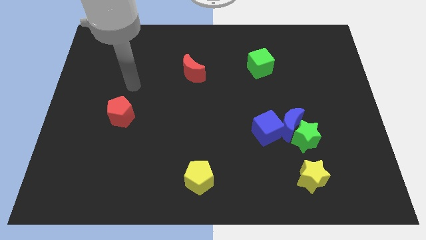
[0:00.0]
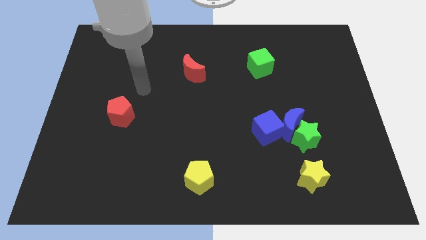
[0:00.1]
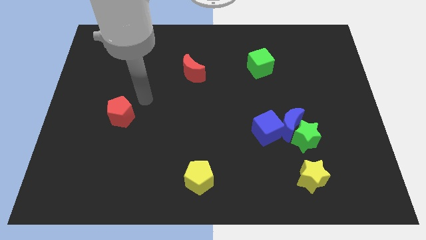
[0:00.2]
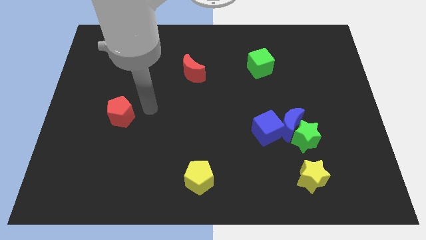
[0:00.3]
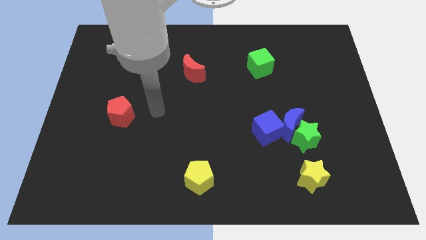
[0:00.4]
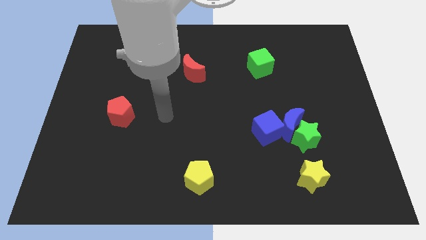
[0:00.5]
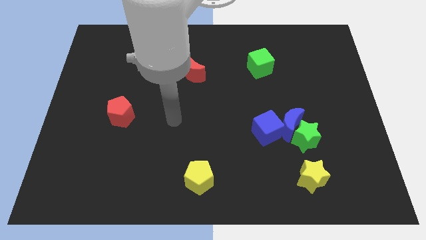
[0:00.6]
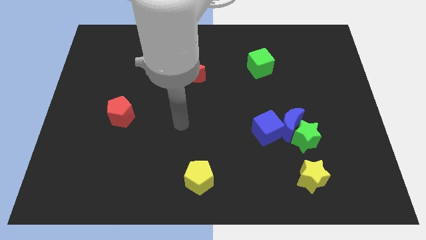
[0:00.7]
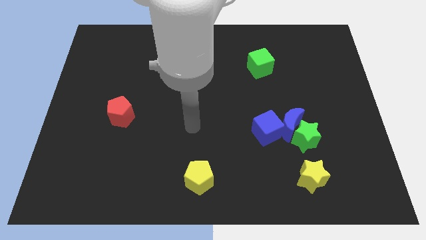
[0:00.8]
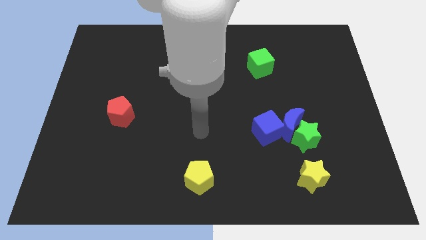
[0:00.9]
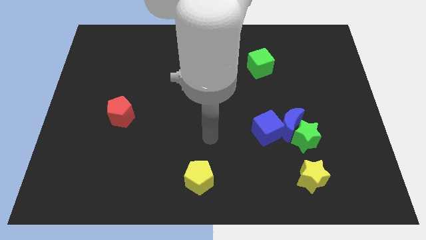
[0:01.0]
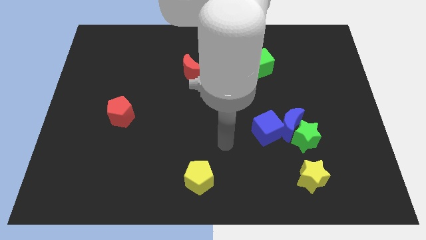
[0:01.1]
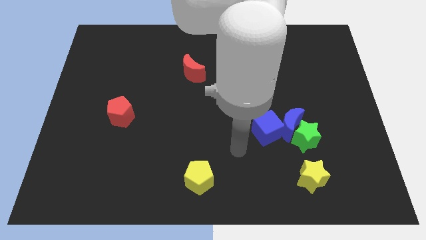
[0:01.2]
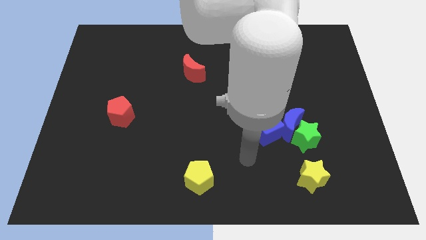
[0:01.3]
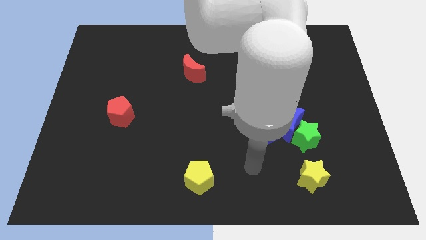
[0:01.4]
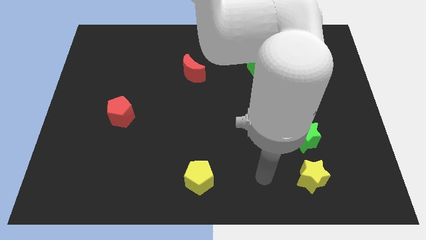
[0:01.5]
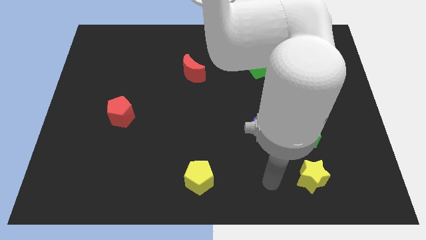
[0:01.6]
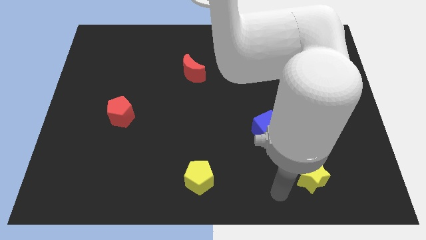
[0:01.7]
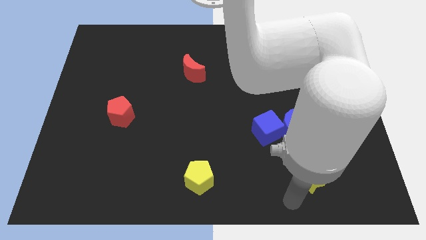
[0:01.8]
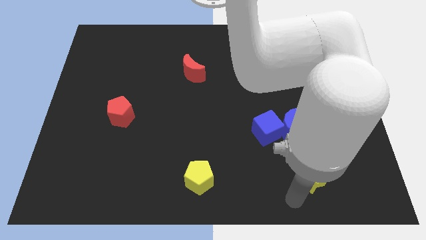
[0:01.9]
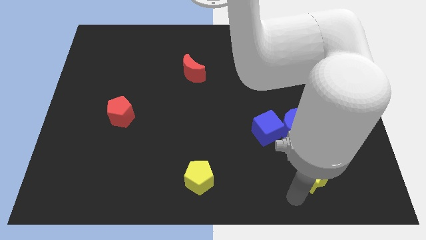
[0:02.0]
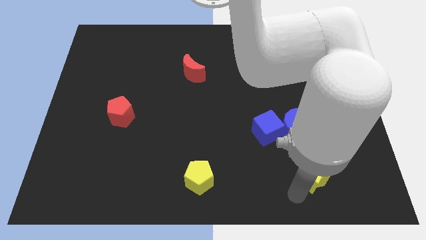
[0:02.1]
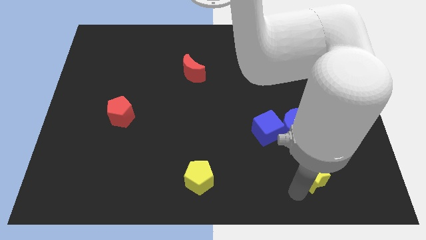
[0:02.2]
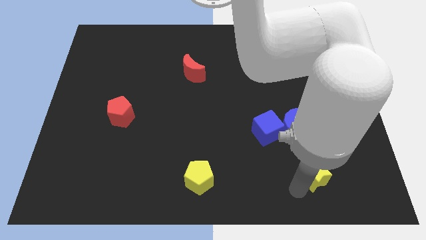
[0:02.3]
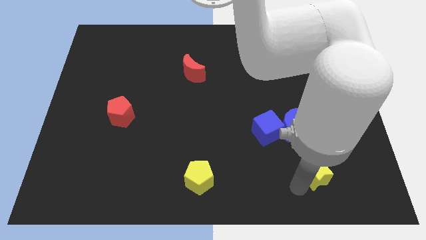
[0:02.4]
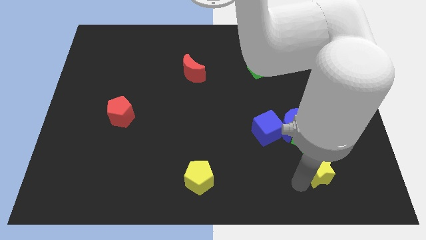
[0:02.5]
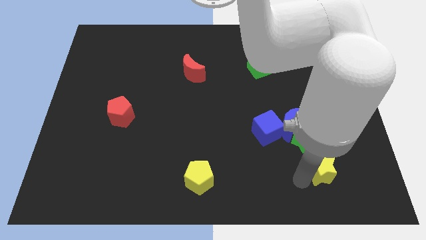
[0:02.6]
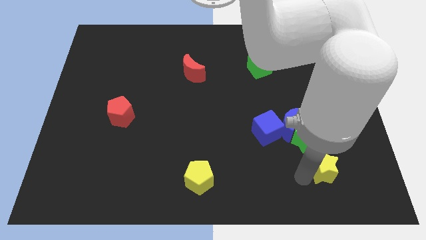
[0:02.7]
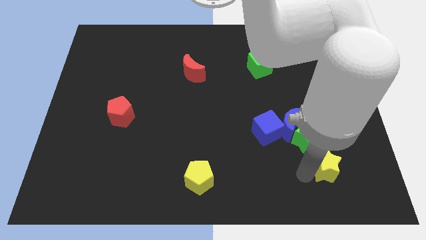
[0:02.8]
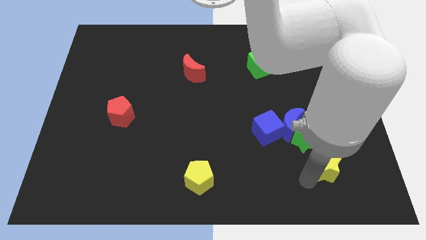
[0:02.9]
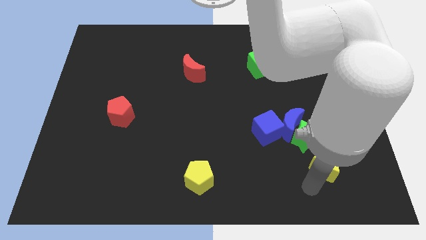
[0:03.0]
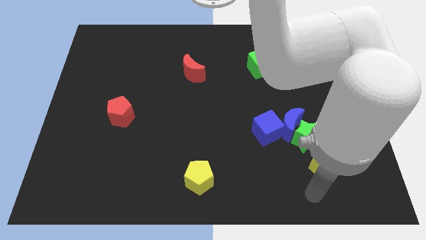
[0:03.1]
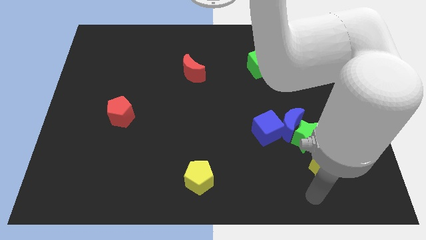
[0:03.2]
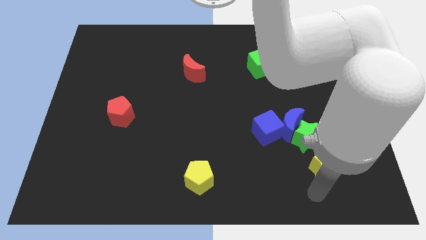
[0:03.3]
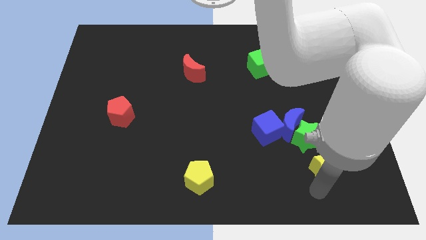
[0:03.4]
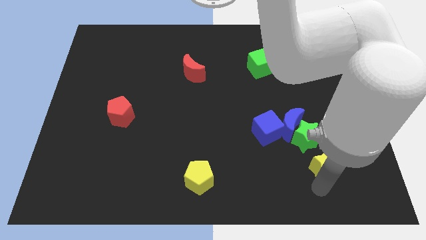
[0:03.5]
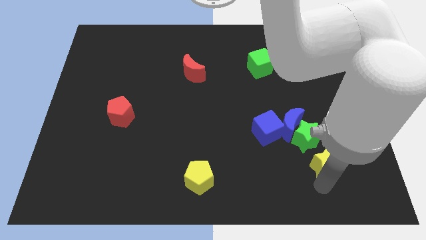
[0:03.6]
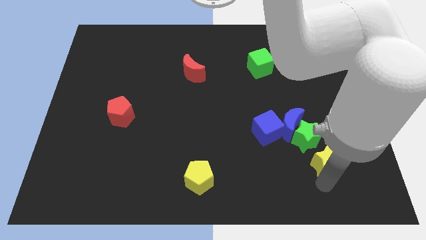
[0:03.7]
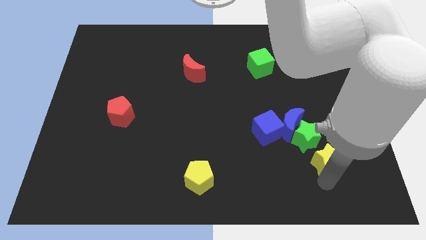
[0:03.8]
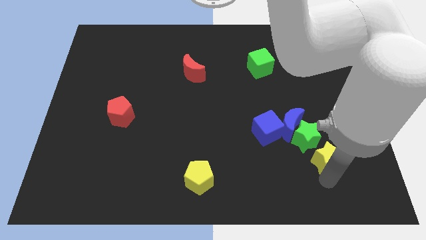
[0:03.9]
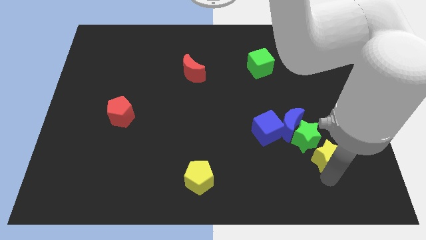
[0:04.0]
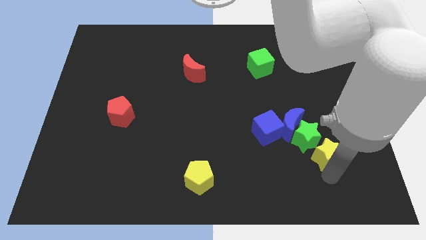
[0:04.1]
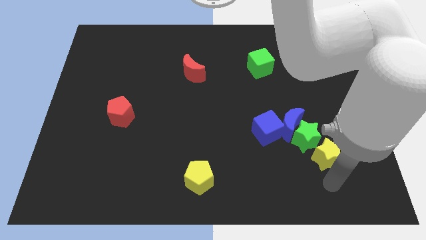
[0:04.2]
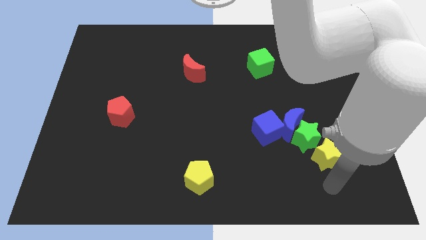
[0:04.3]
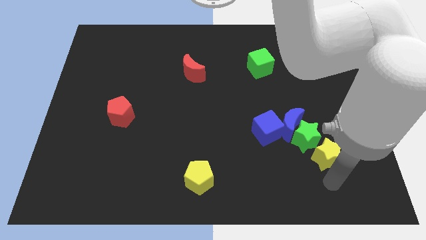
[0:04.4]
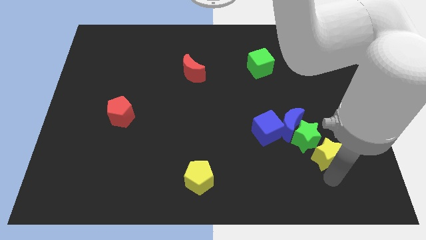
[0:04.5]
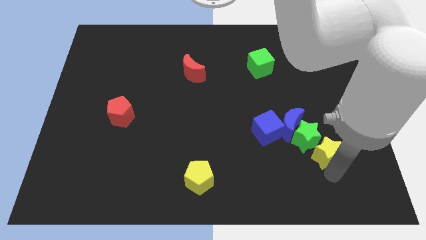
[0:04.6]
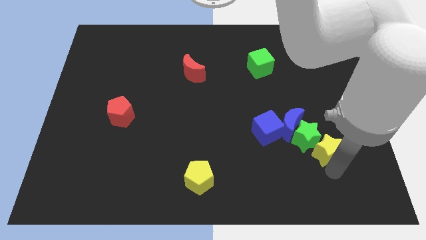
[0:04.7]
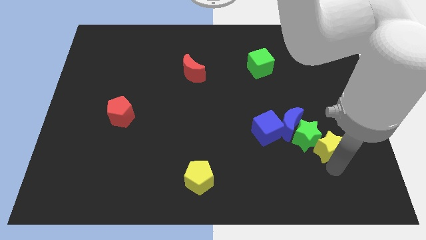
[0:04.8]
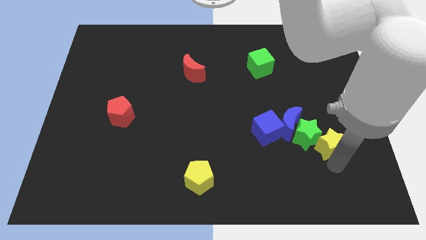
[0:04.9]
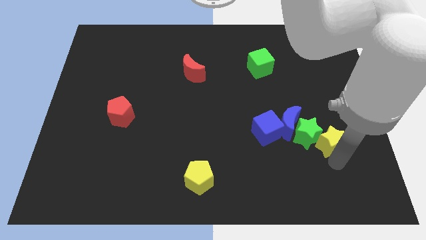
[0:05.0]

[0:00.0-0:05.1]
slide the yellow star upwards a bit

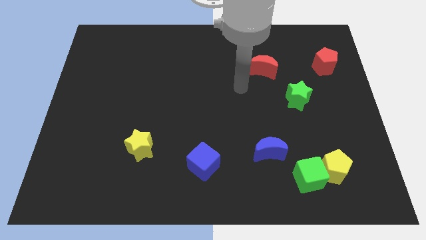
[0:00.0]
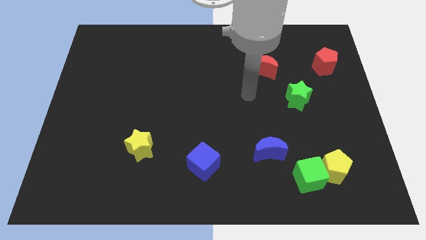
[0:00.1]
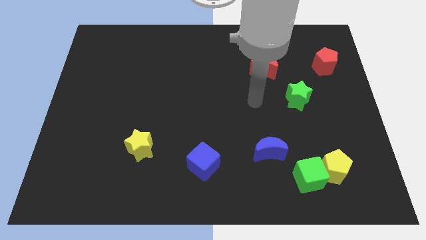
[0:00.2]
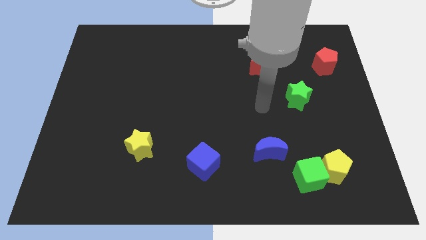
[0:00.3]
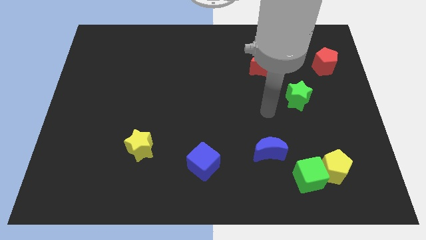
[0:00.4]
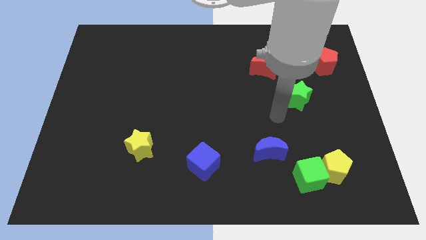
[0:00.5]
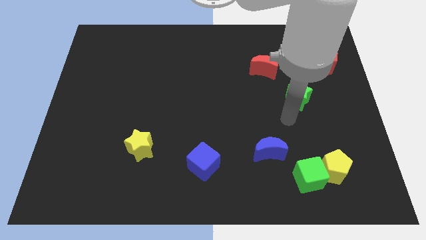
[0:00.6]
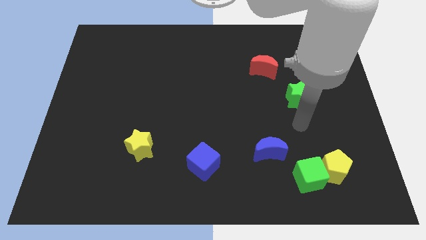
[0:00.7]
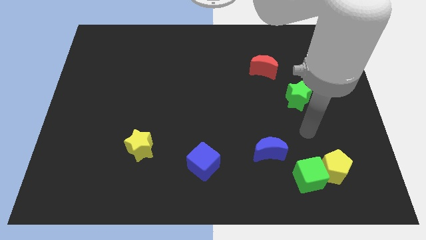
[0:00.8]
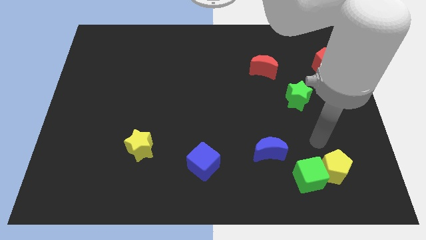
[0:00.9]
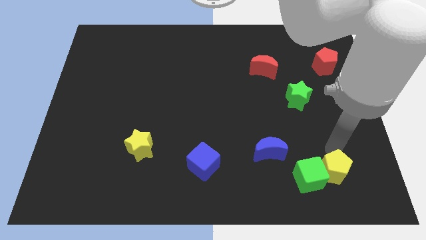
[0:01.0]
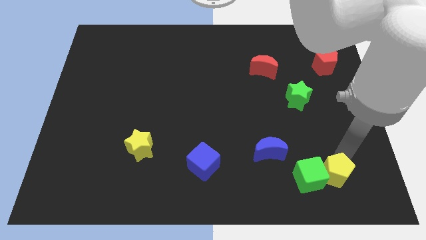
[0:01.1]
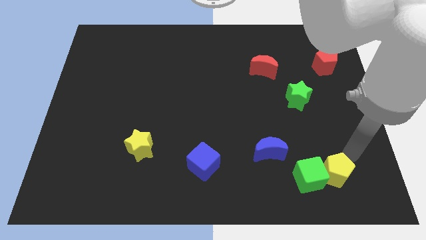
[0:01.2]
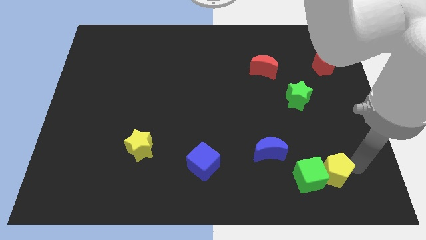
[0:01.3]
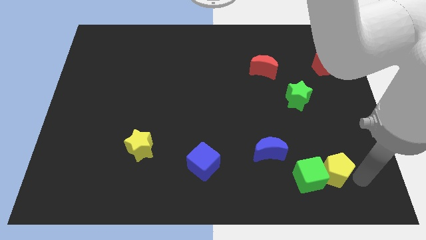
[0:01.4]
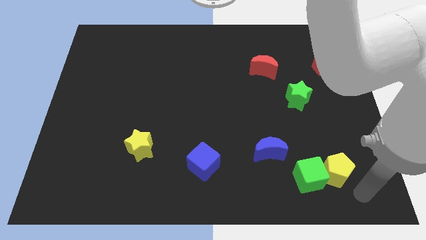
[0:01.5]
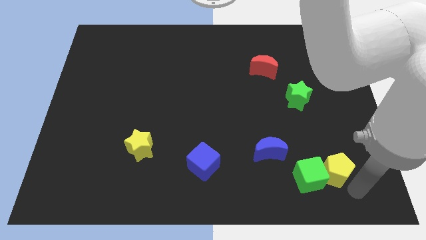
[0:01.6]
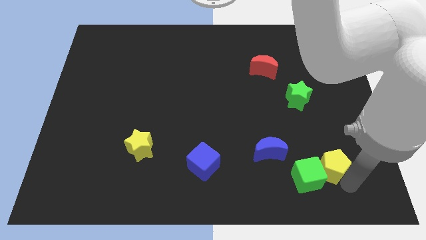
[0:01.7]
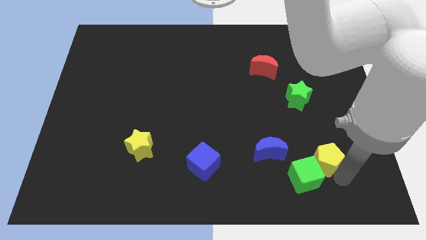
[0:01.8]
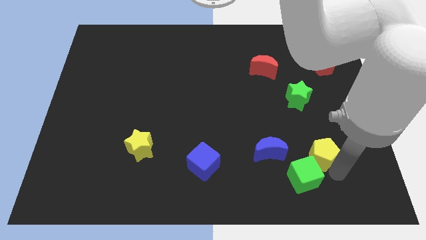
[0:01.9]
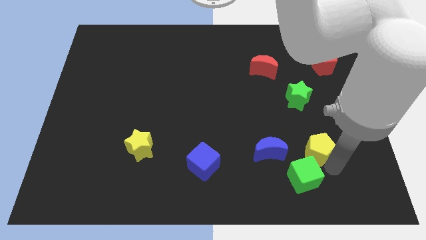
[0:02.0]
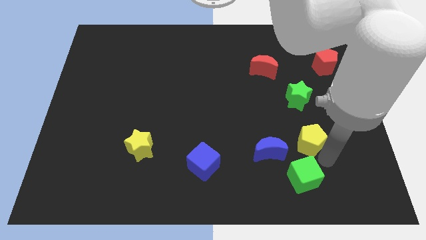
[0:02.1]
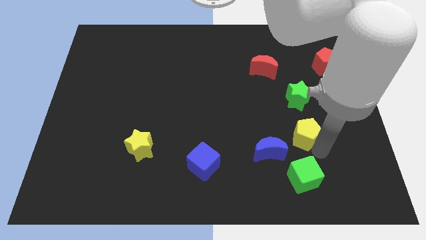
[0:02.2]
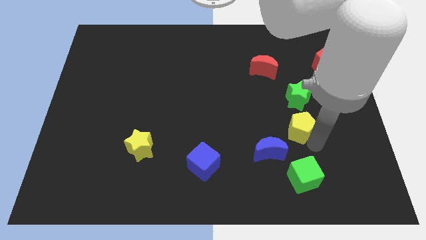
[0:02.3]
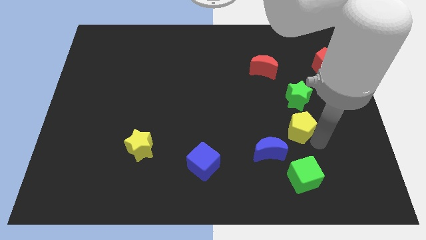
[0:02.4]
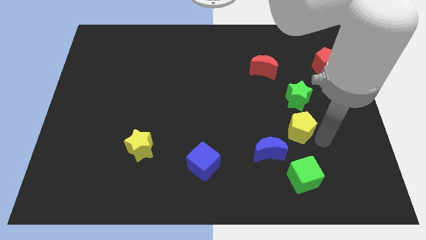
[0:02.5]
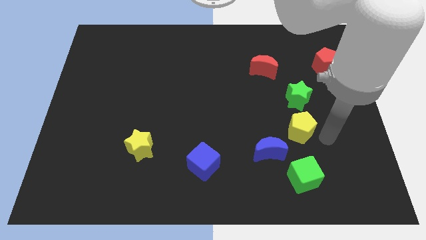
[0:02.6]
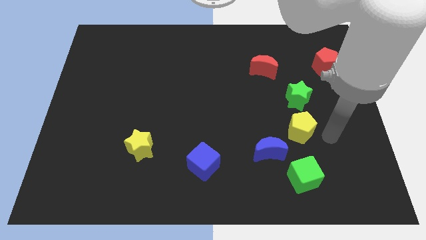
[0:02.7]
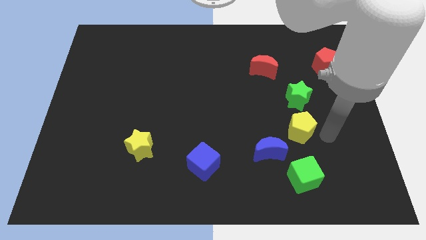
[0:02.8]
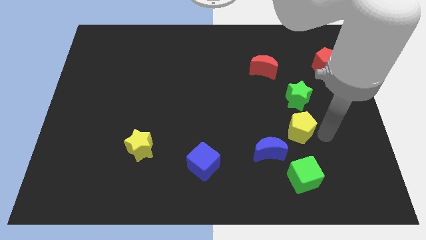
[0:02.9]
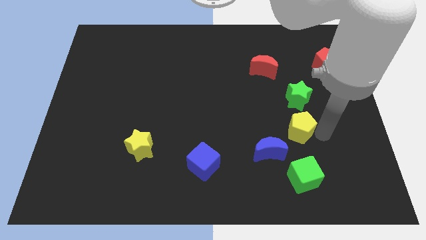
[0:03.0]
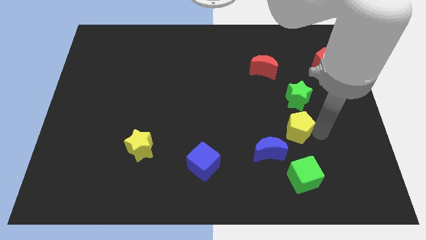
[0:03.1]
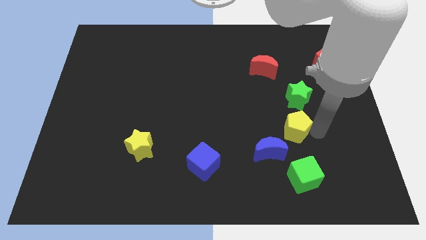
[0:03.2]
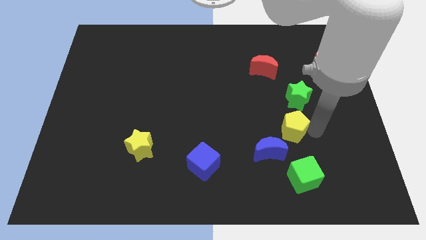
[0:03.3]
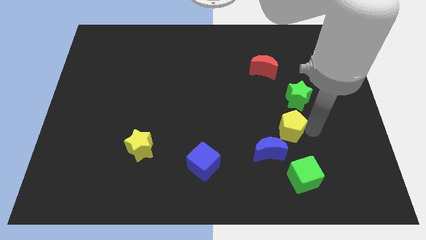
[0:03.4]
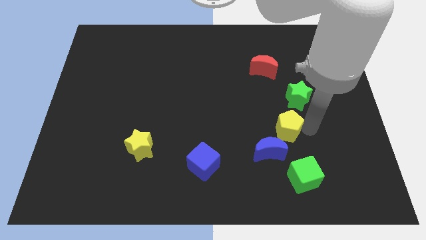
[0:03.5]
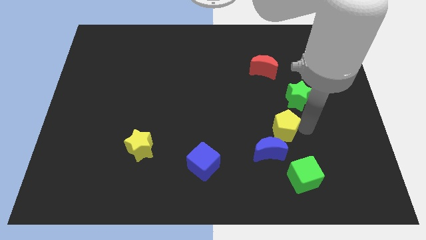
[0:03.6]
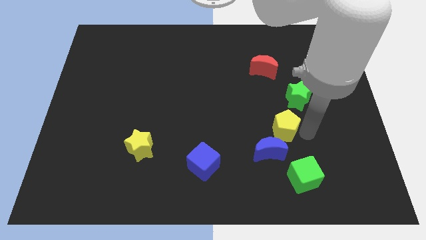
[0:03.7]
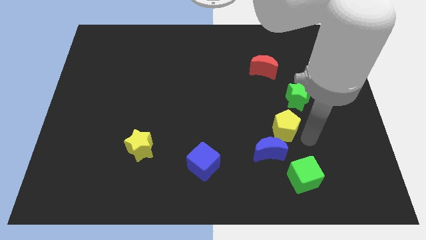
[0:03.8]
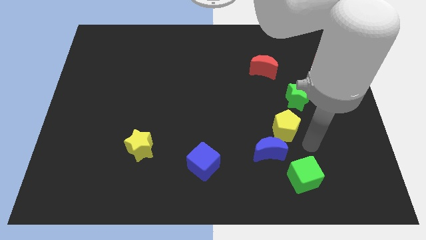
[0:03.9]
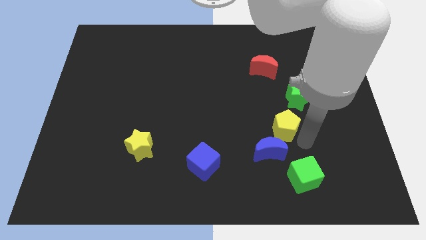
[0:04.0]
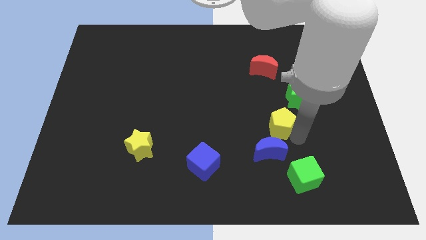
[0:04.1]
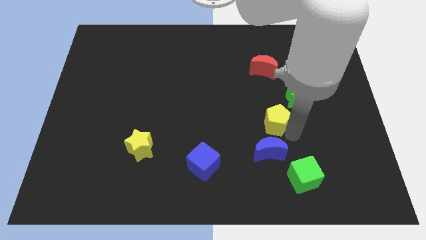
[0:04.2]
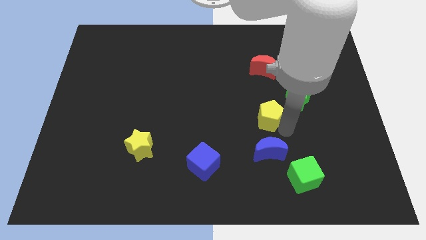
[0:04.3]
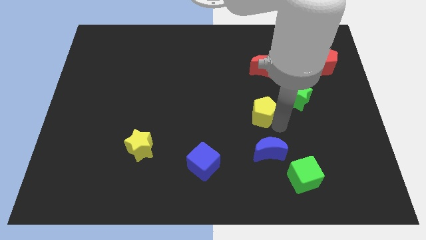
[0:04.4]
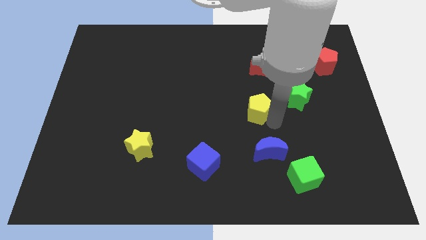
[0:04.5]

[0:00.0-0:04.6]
slide the yellow pentagon up and to the left
